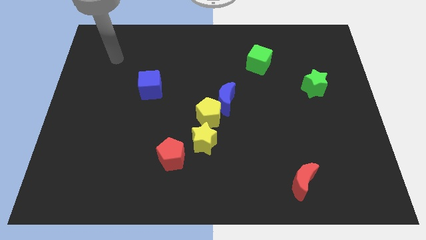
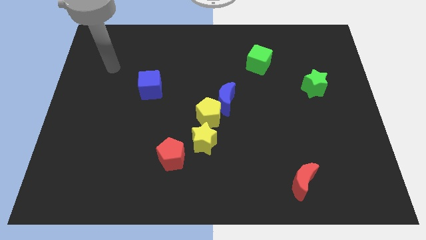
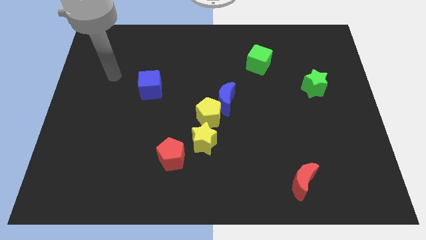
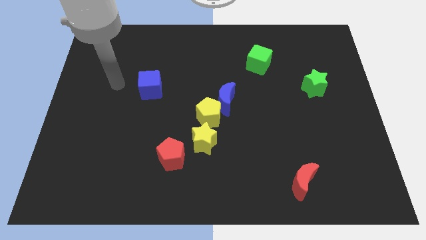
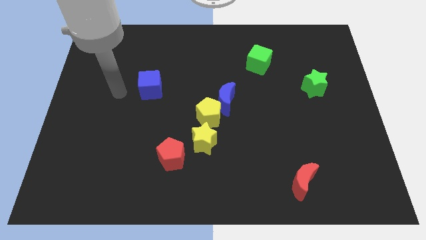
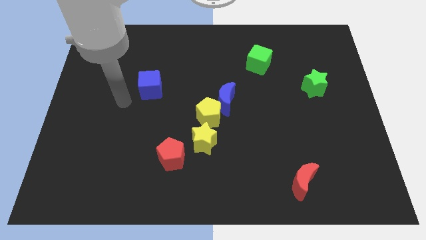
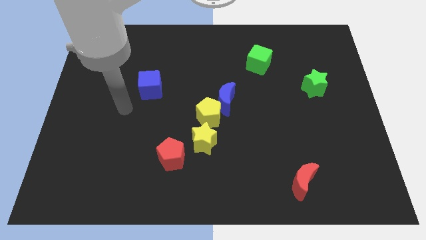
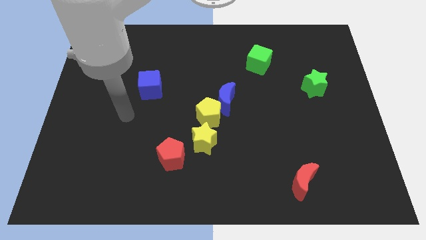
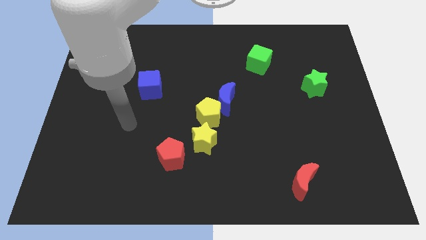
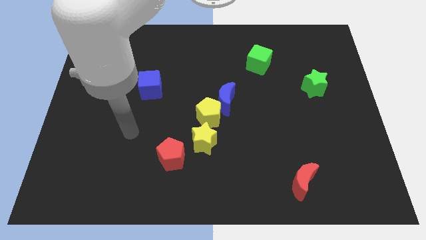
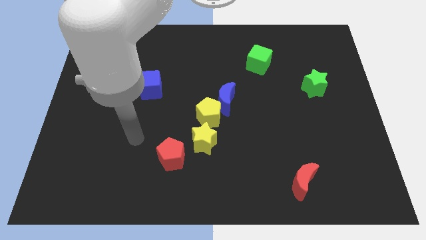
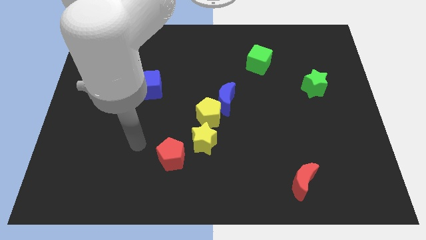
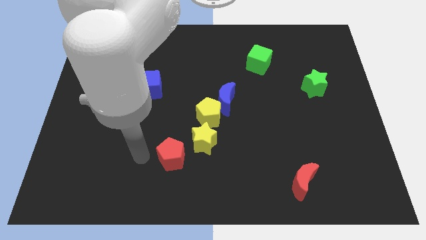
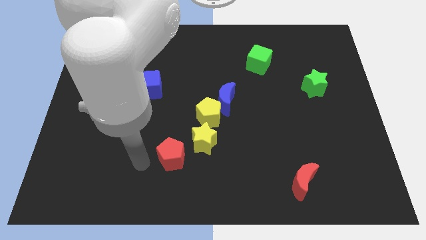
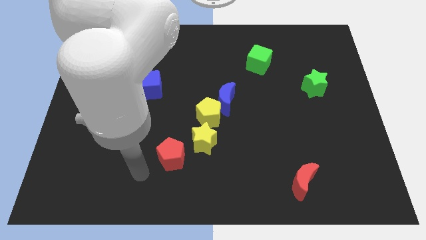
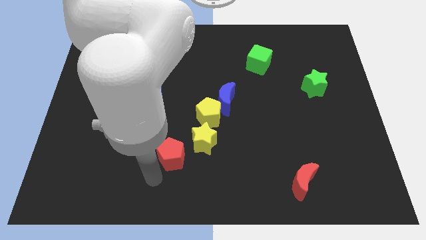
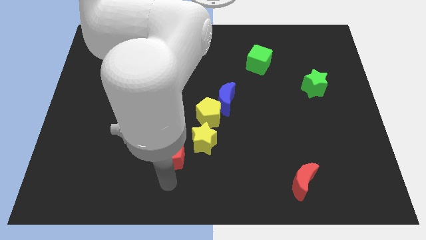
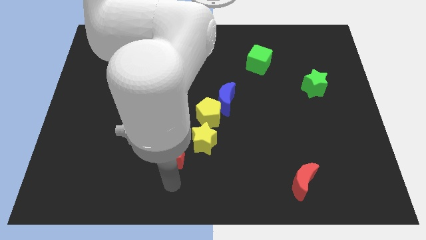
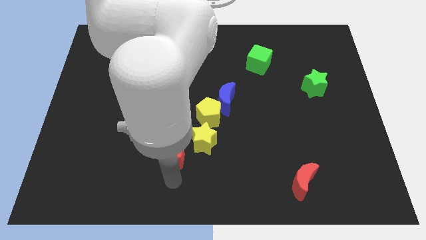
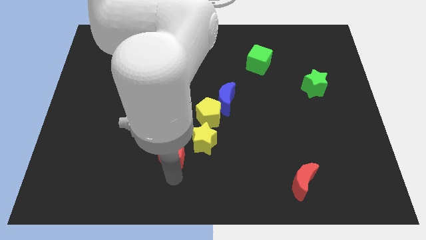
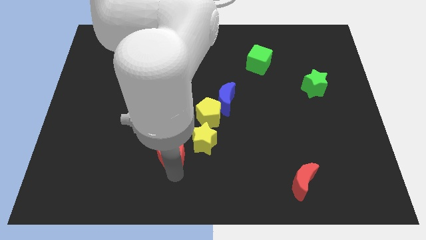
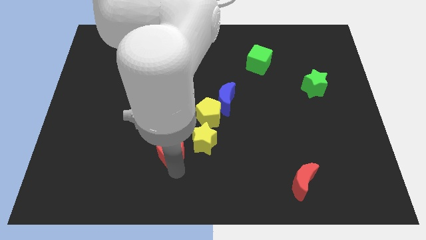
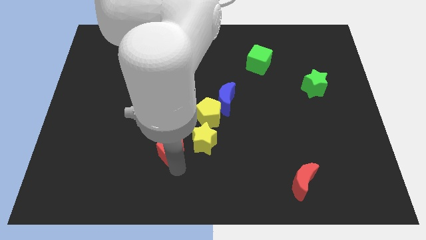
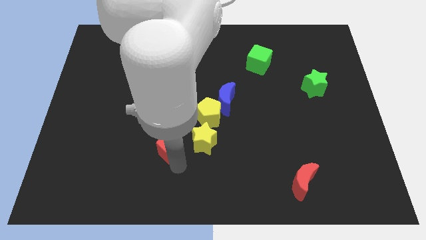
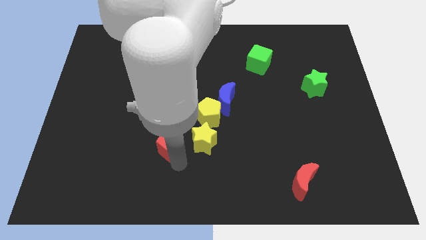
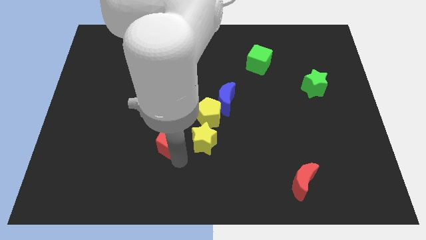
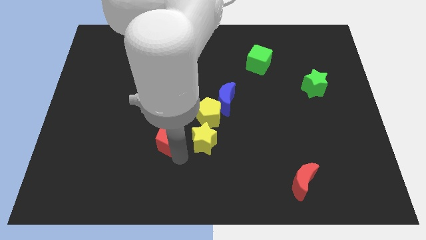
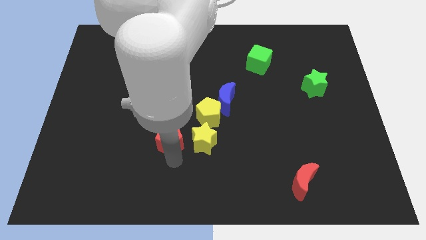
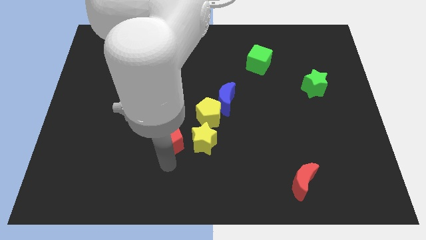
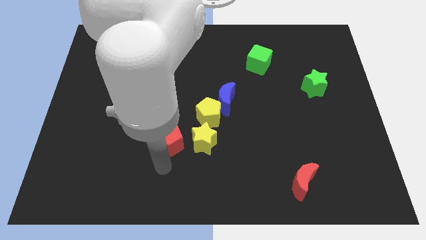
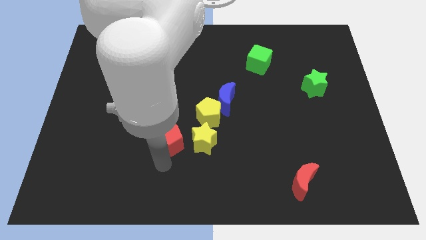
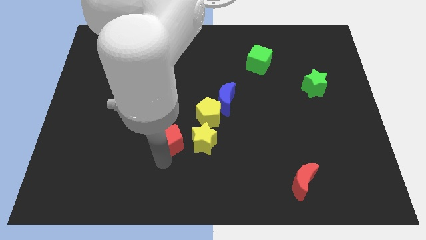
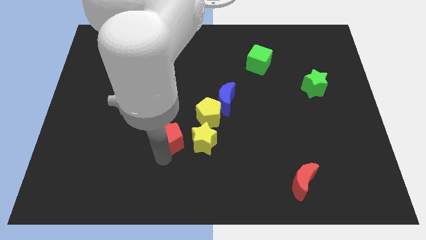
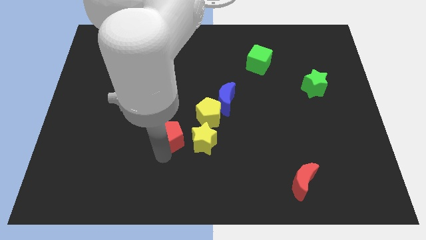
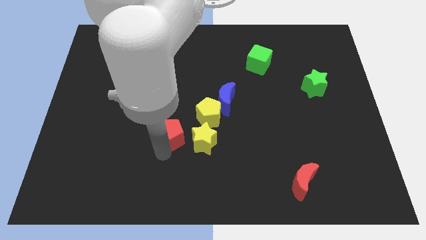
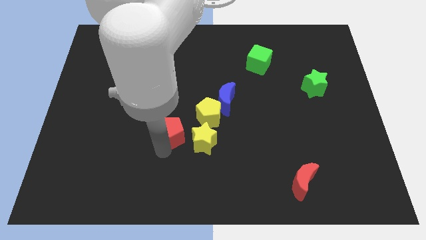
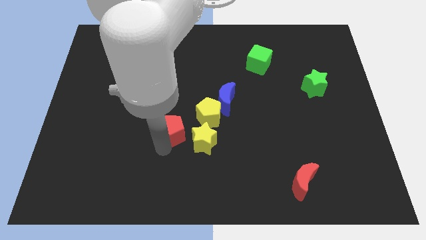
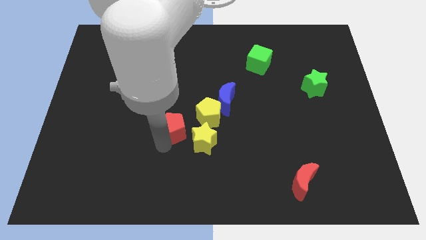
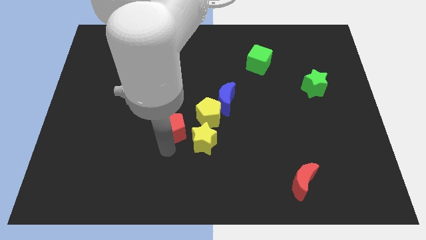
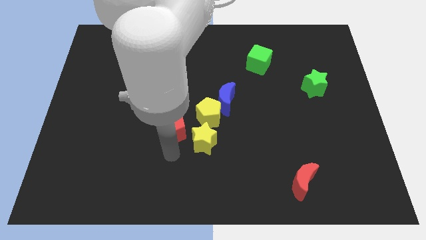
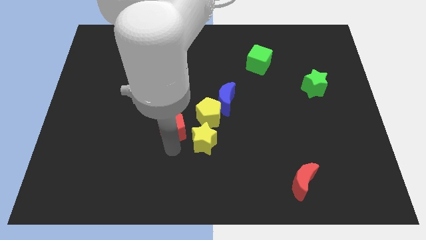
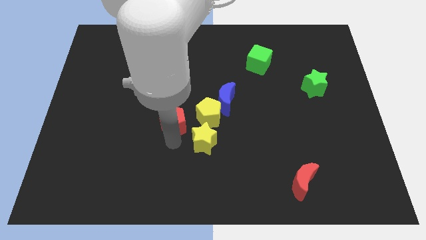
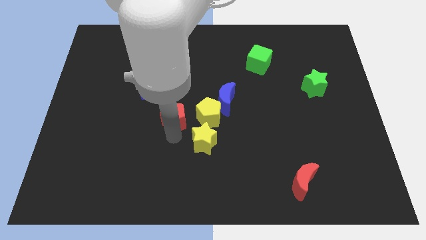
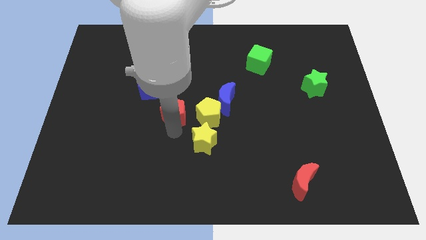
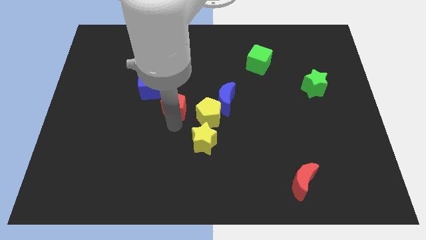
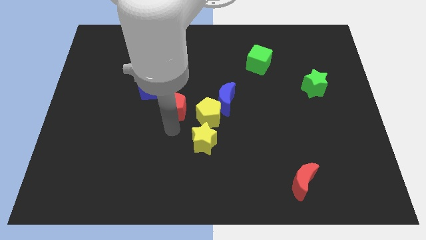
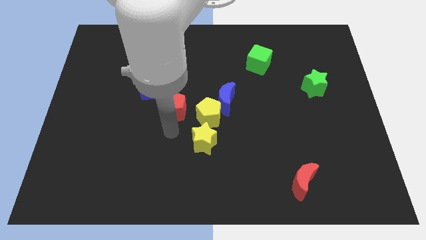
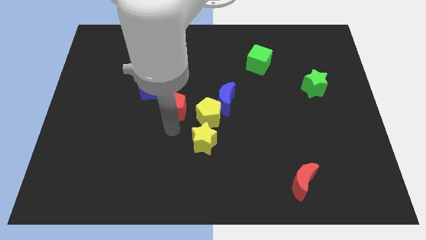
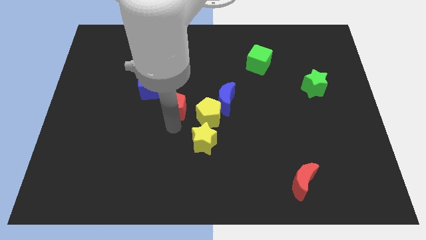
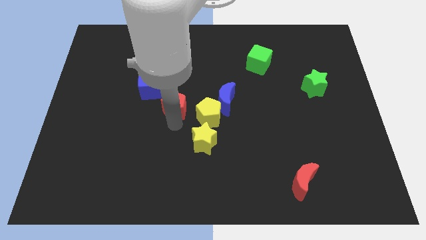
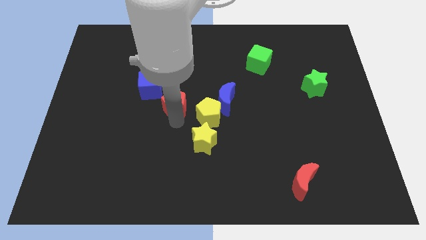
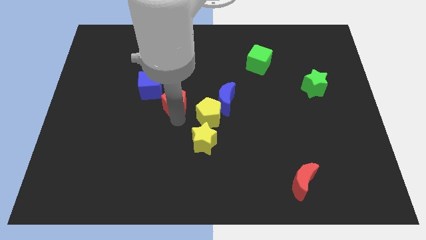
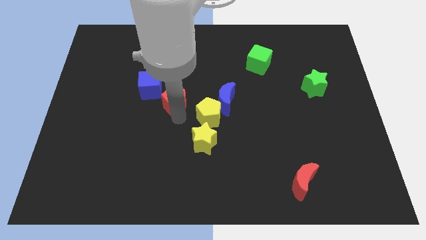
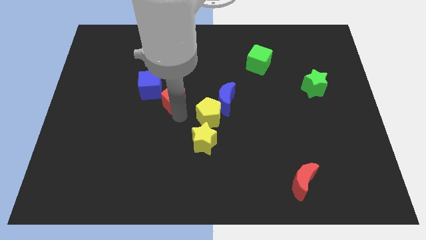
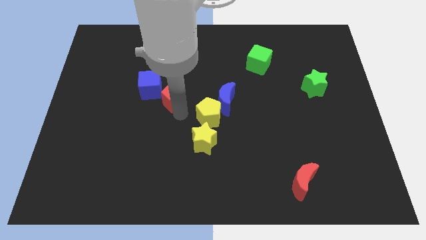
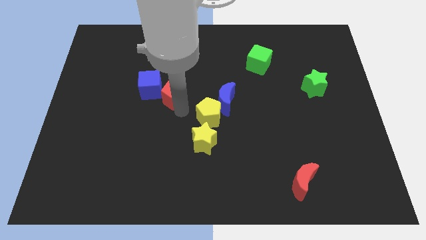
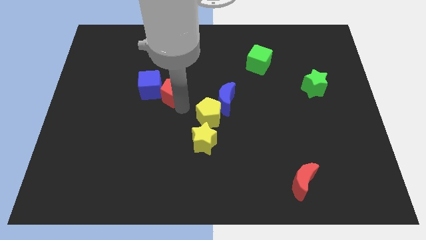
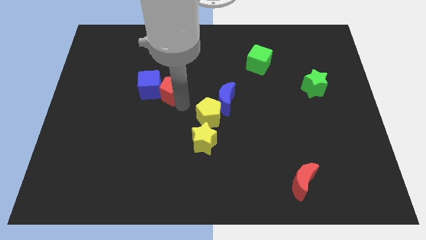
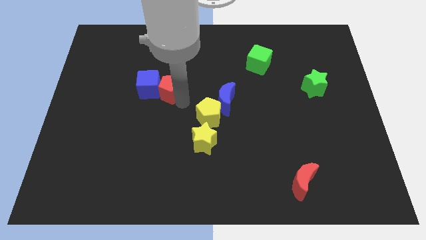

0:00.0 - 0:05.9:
put the red pentagon diagonally up and to the right of the blue cube

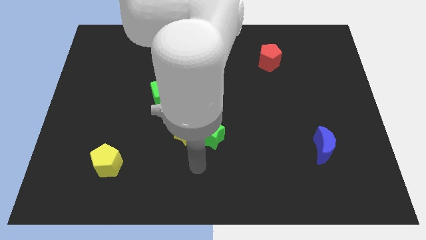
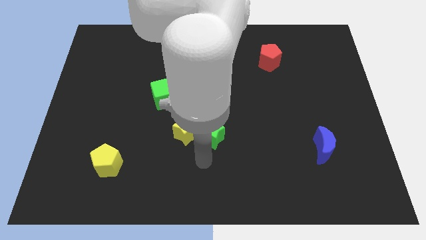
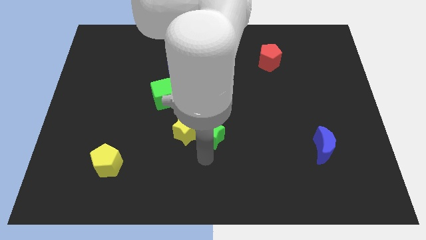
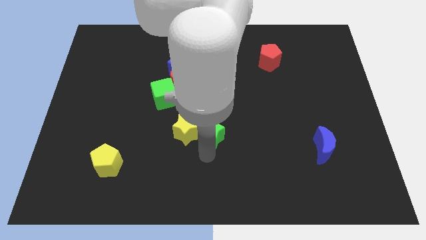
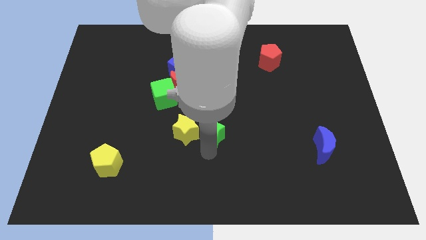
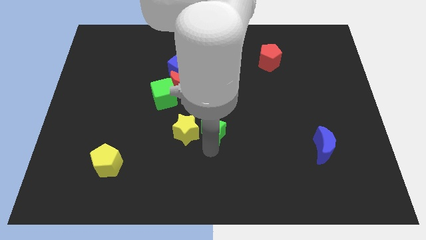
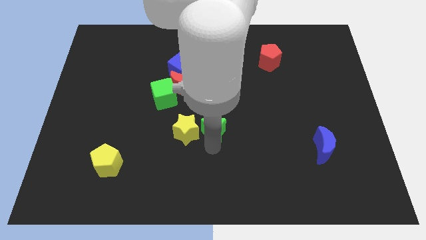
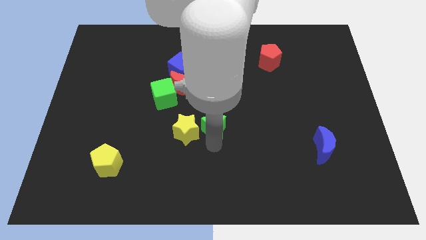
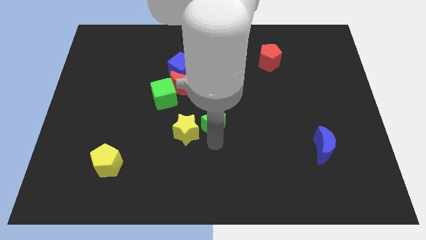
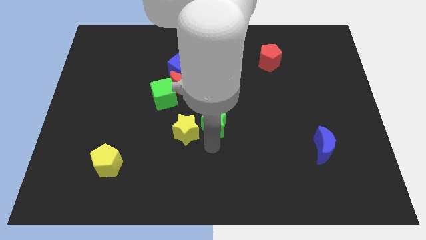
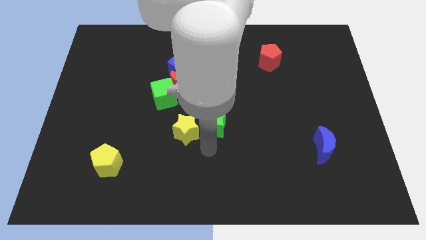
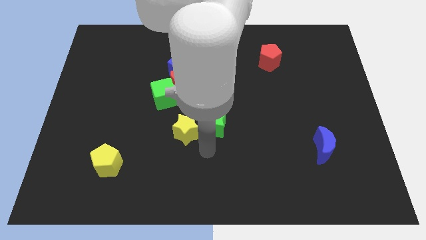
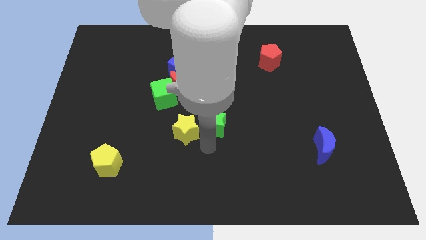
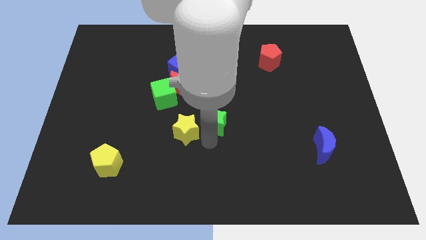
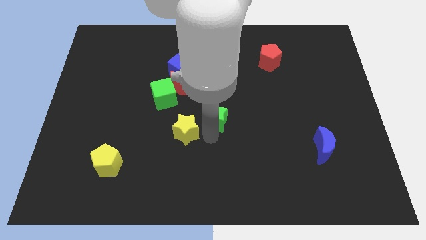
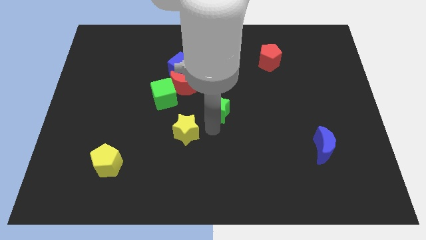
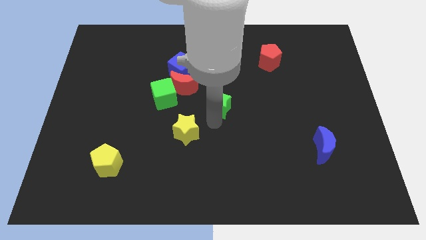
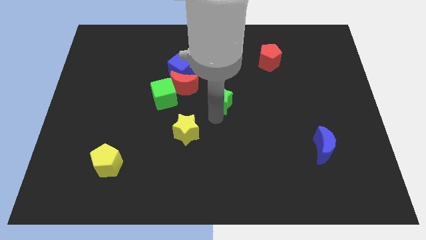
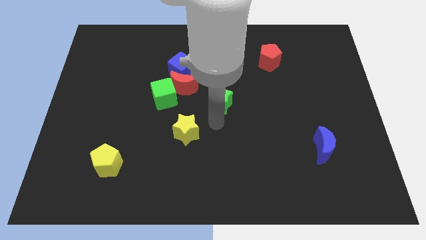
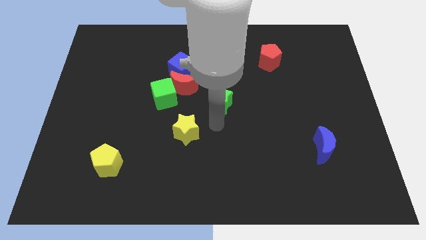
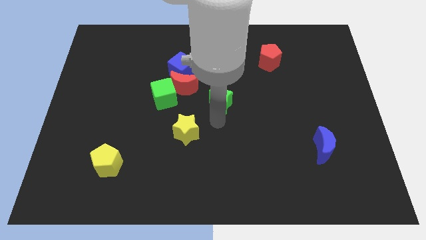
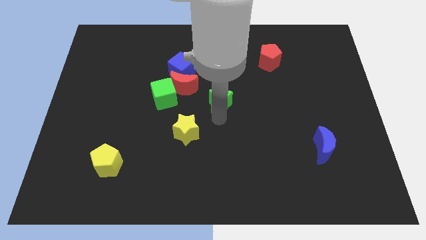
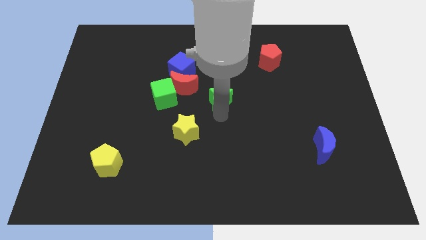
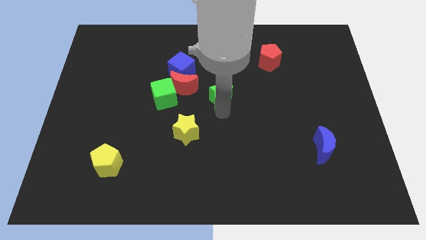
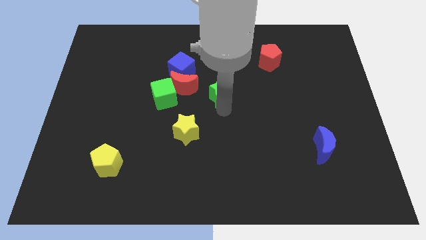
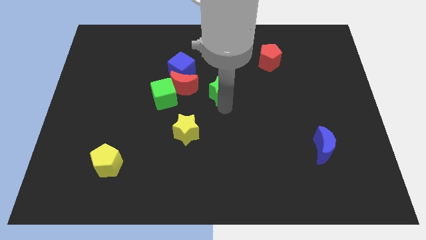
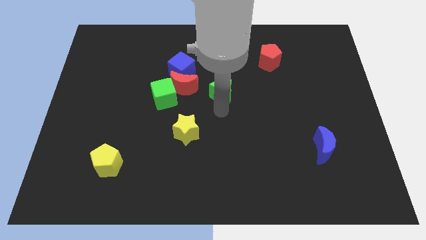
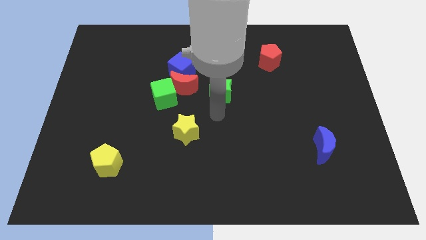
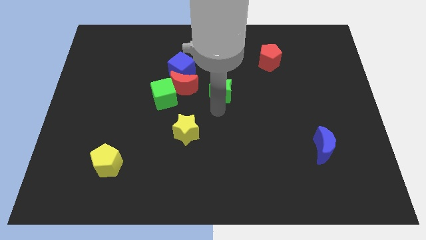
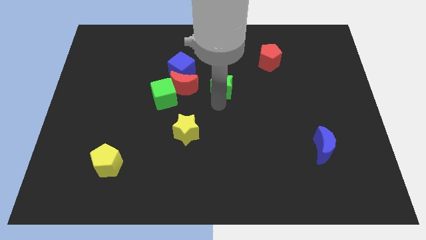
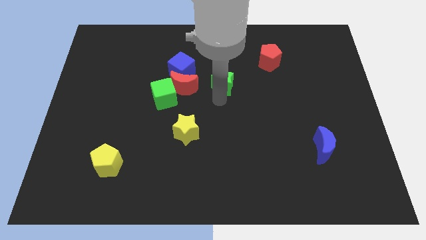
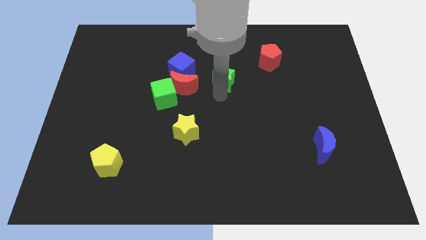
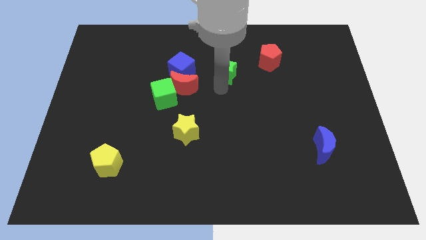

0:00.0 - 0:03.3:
move the green star to the left side of the red pentagon
